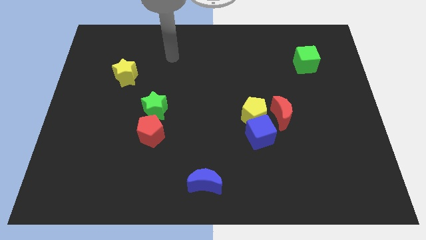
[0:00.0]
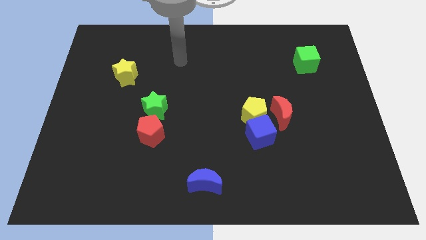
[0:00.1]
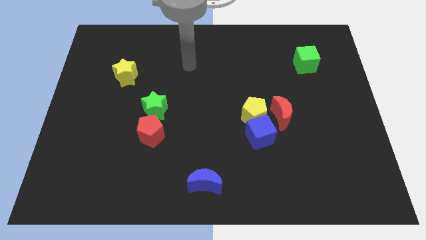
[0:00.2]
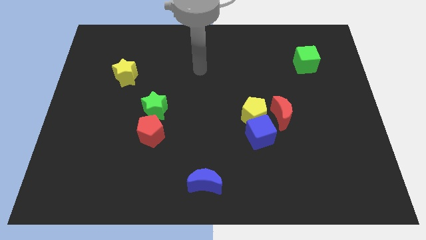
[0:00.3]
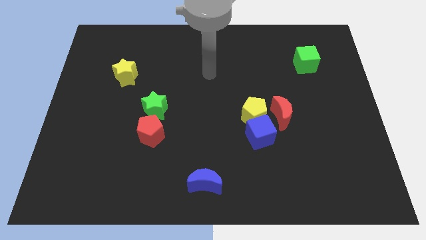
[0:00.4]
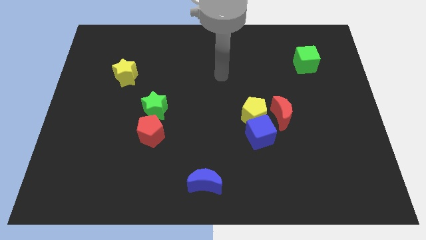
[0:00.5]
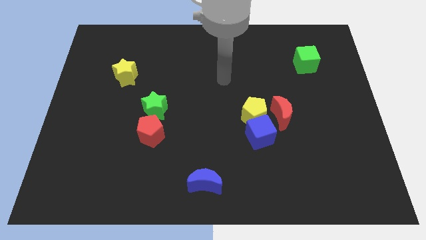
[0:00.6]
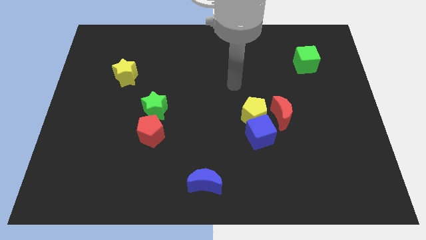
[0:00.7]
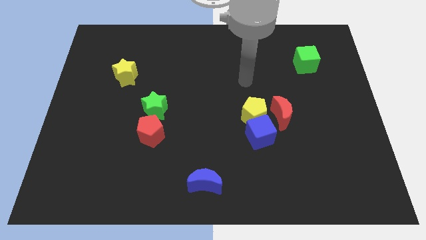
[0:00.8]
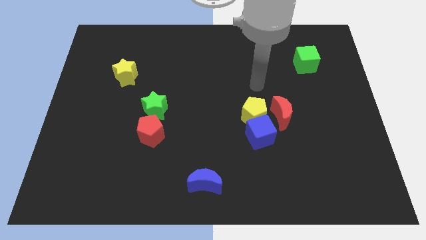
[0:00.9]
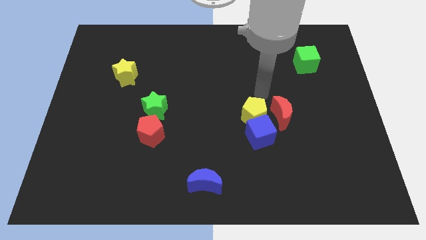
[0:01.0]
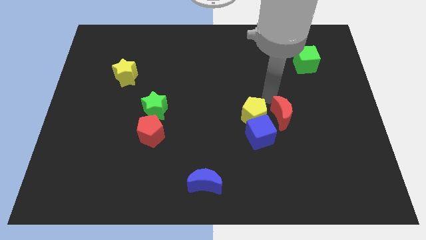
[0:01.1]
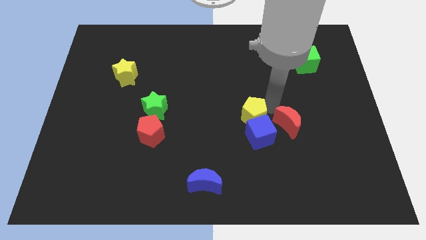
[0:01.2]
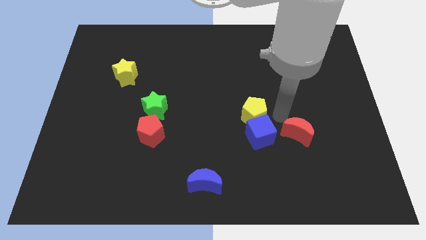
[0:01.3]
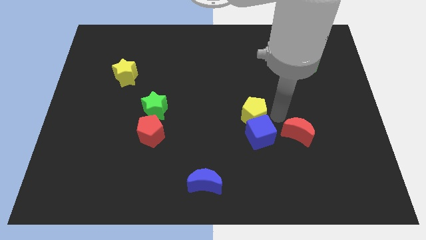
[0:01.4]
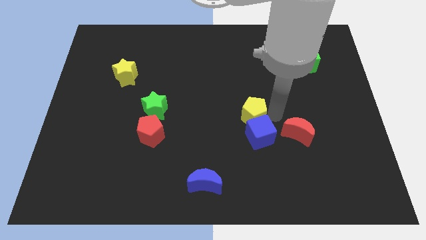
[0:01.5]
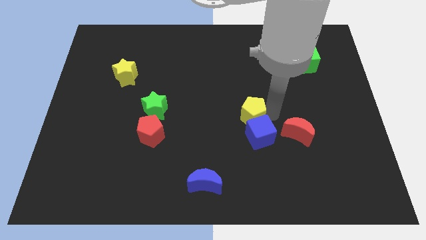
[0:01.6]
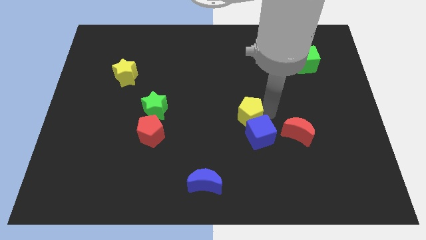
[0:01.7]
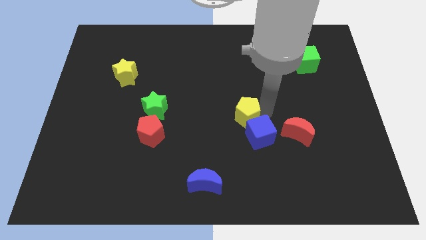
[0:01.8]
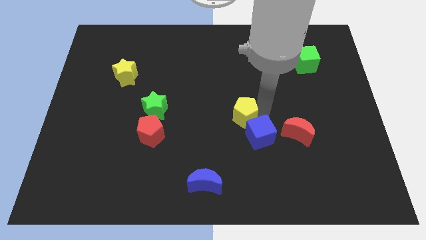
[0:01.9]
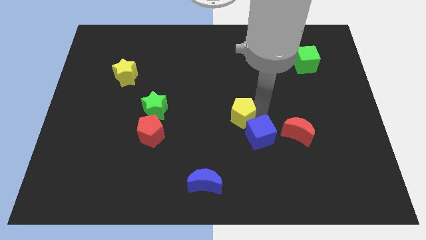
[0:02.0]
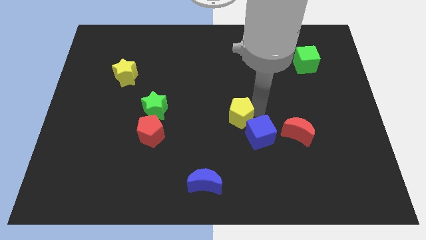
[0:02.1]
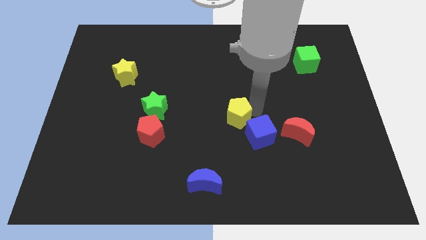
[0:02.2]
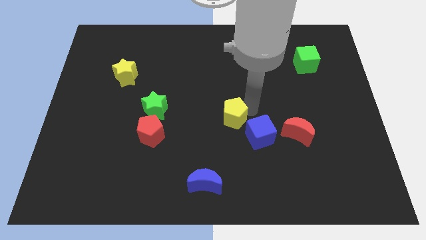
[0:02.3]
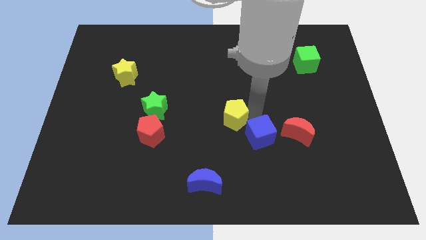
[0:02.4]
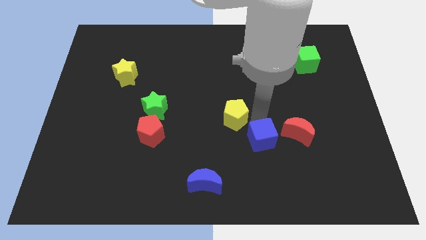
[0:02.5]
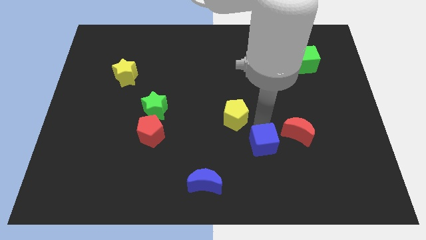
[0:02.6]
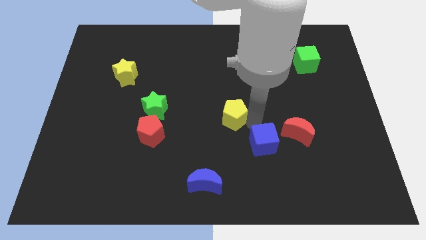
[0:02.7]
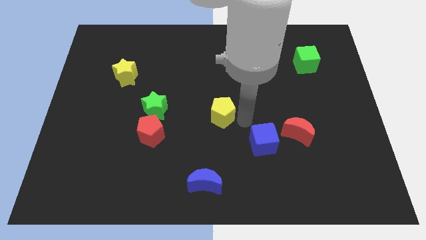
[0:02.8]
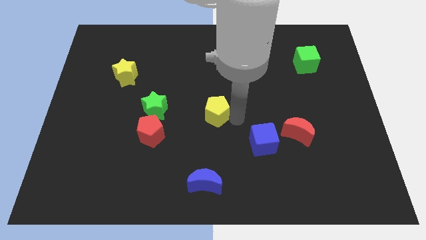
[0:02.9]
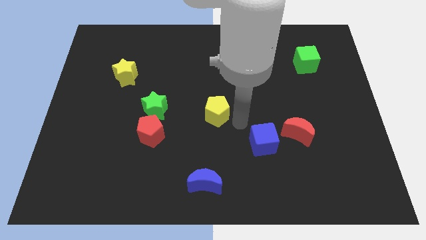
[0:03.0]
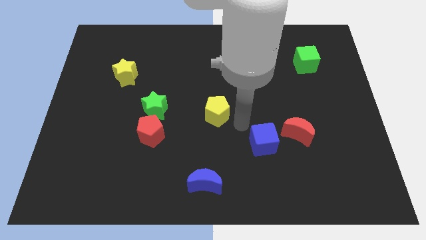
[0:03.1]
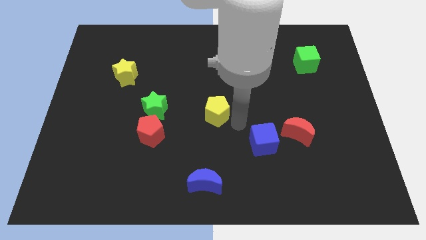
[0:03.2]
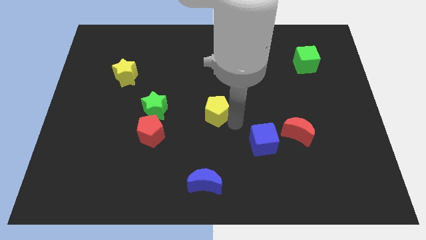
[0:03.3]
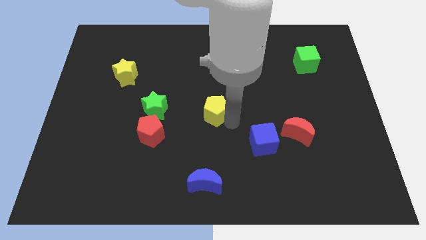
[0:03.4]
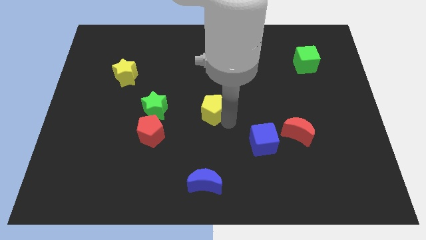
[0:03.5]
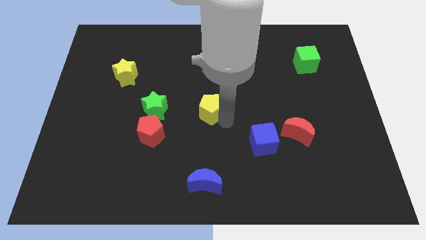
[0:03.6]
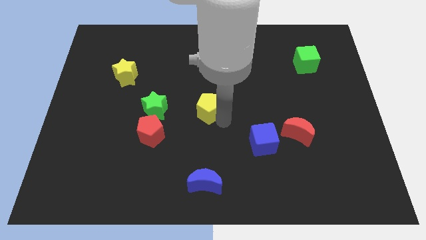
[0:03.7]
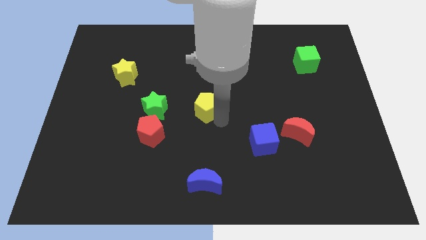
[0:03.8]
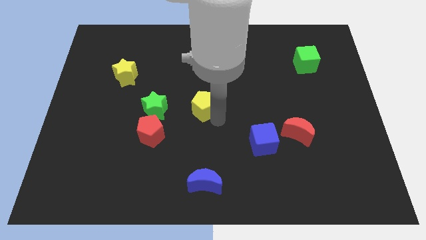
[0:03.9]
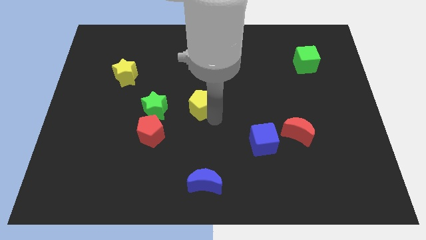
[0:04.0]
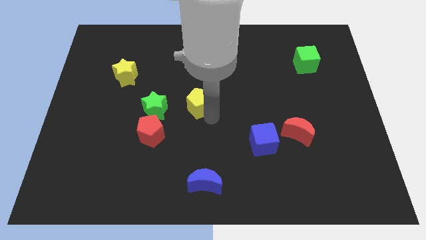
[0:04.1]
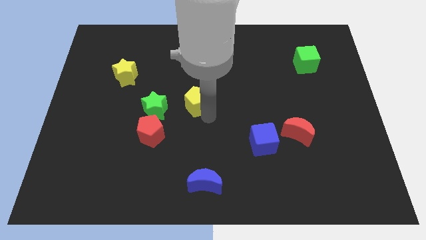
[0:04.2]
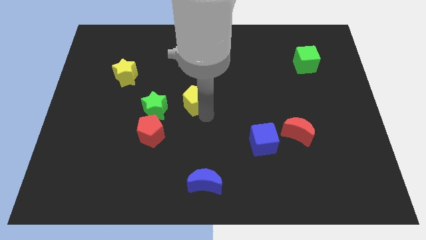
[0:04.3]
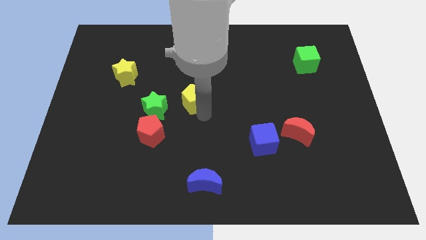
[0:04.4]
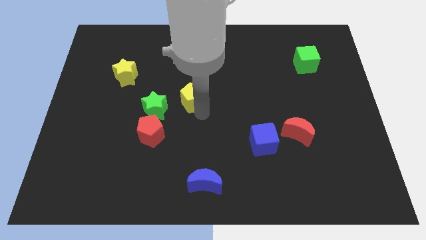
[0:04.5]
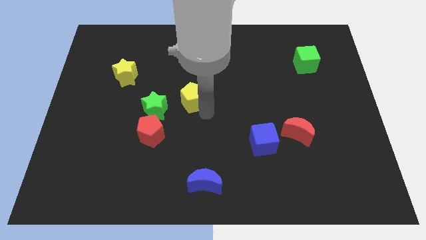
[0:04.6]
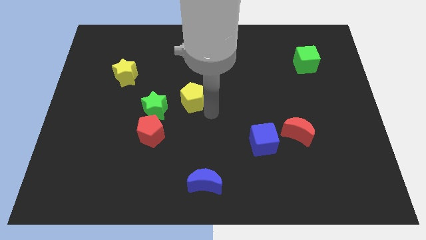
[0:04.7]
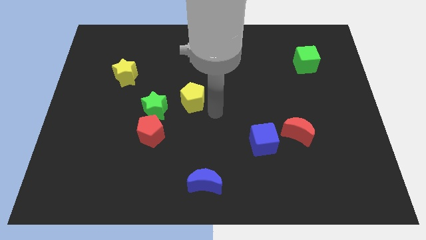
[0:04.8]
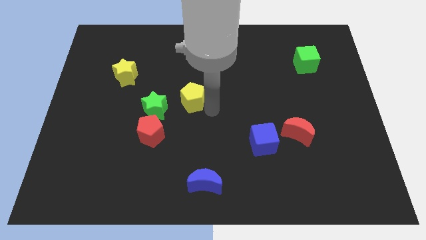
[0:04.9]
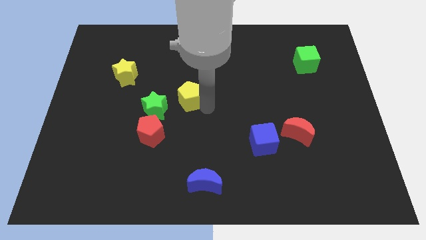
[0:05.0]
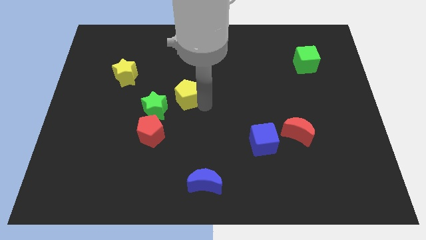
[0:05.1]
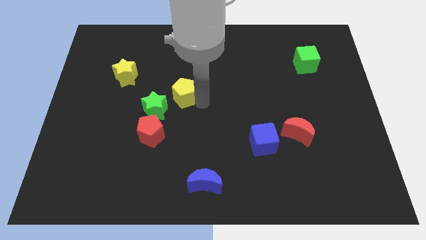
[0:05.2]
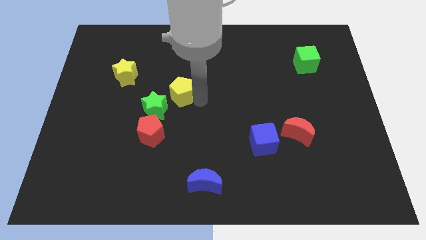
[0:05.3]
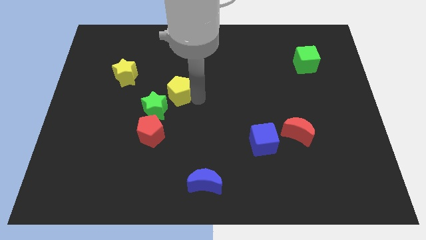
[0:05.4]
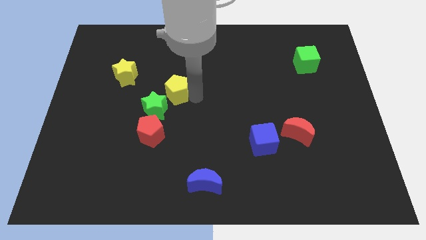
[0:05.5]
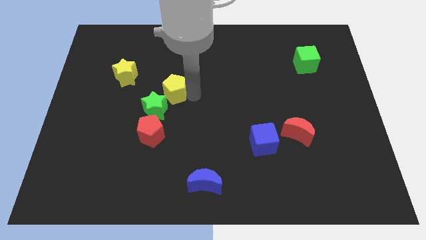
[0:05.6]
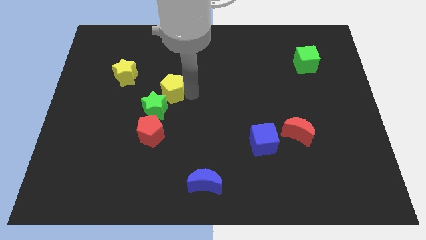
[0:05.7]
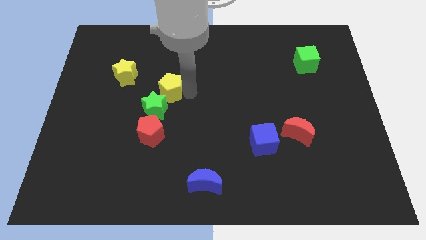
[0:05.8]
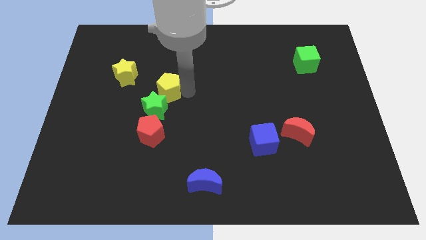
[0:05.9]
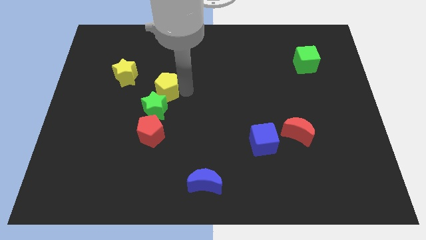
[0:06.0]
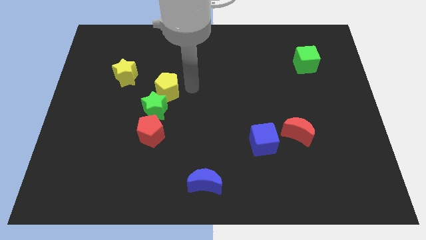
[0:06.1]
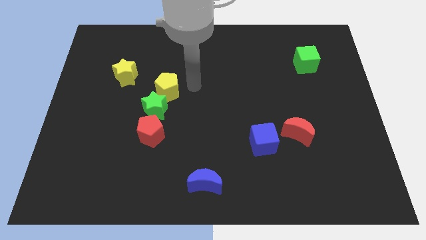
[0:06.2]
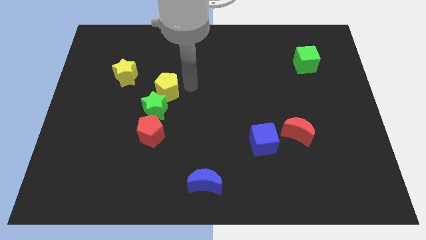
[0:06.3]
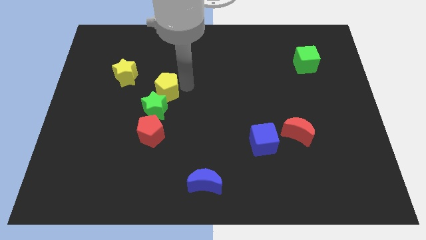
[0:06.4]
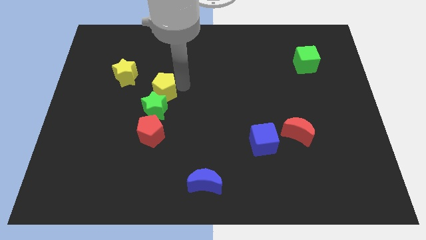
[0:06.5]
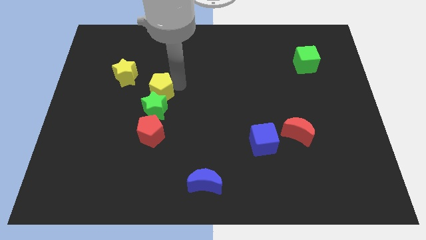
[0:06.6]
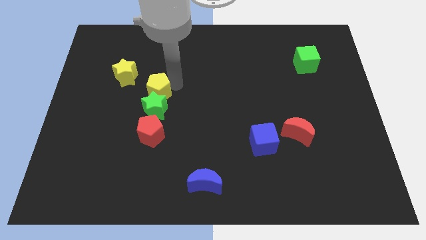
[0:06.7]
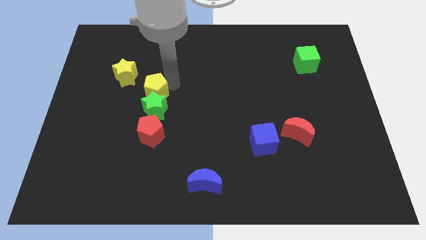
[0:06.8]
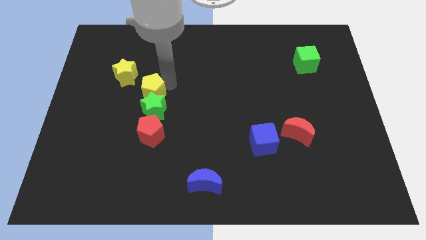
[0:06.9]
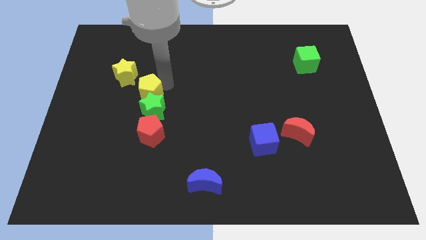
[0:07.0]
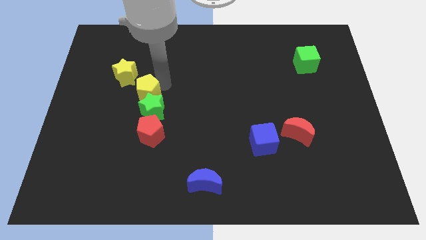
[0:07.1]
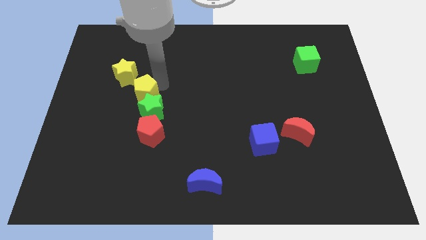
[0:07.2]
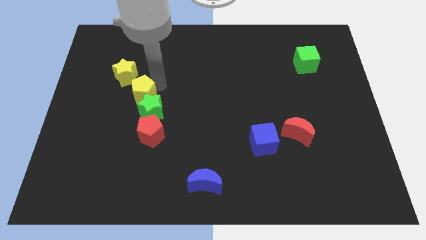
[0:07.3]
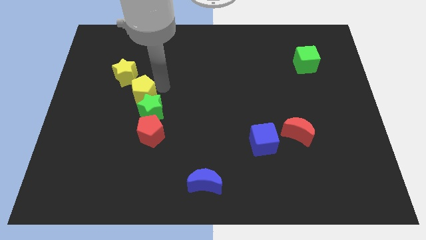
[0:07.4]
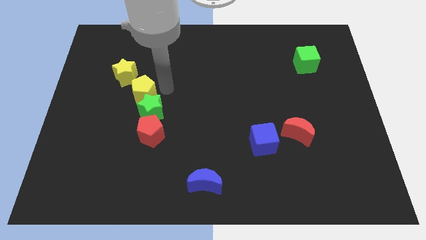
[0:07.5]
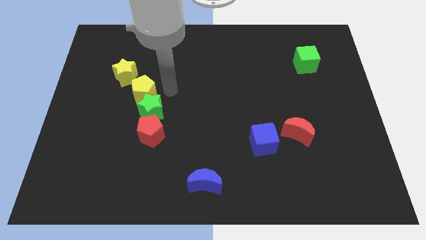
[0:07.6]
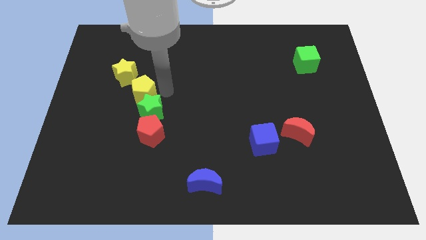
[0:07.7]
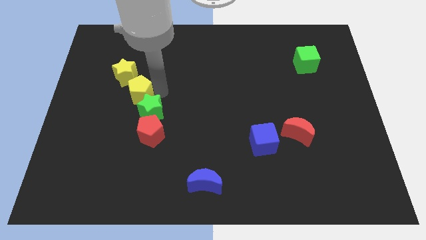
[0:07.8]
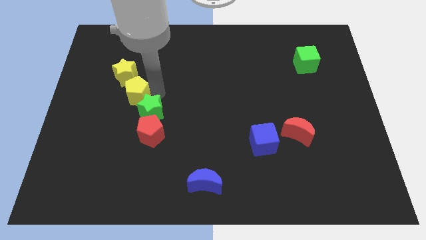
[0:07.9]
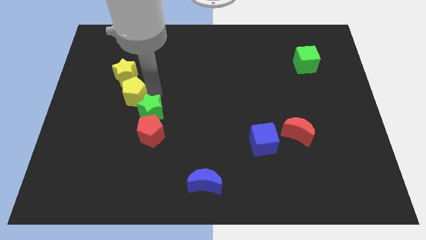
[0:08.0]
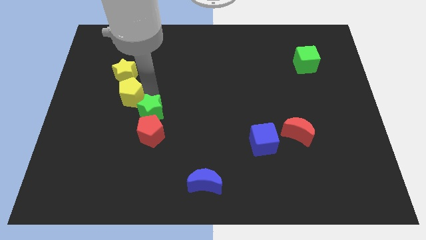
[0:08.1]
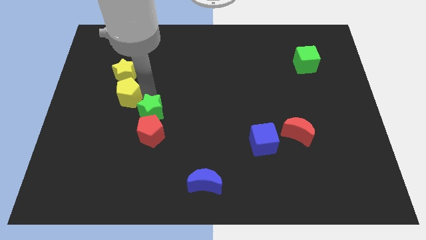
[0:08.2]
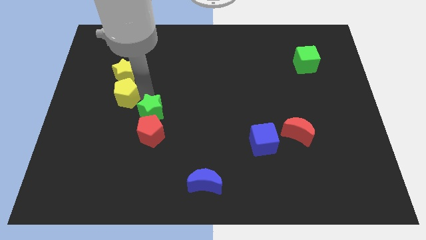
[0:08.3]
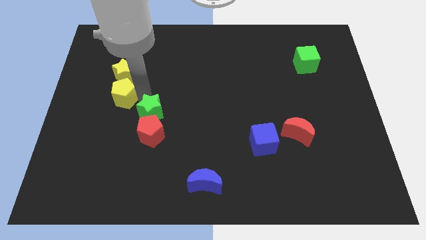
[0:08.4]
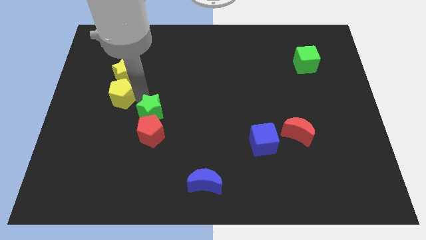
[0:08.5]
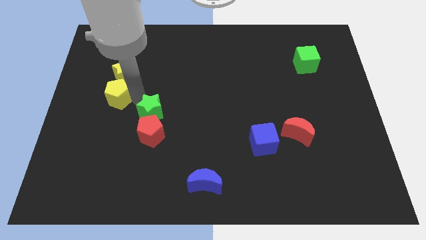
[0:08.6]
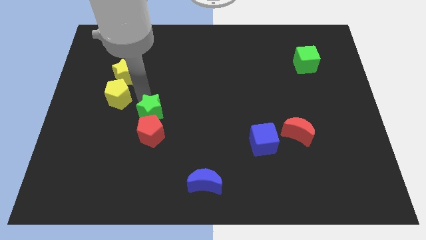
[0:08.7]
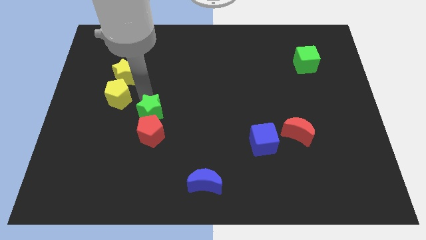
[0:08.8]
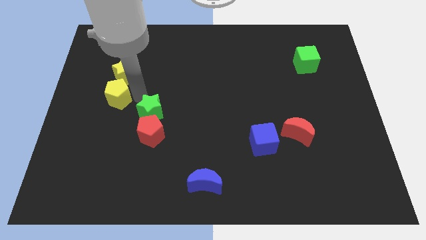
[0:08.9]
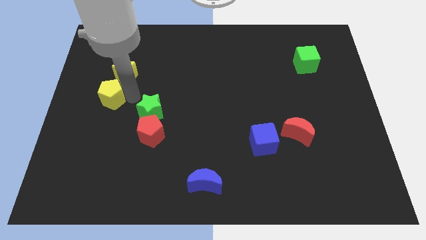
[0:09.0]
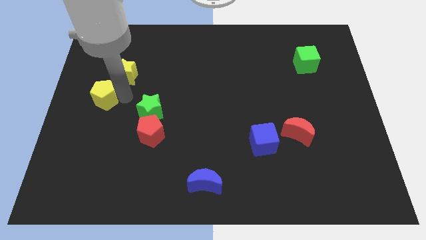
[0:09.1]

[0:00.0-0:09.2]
slide the yellow pentagon to the left side
